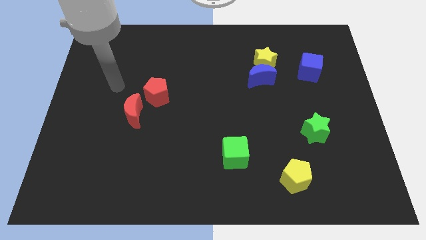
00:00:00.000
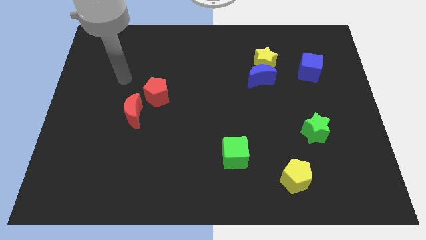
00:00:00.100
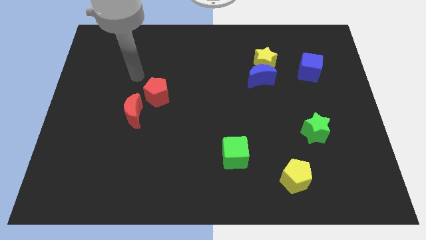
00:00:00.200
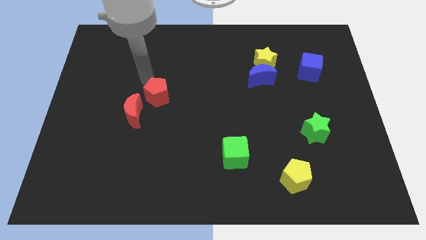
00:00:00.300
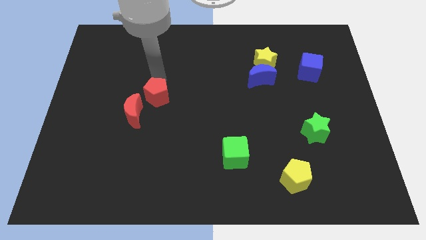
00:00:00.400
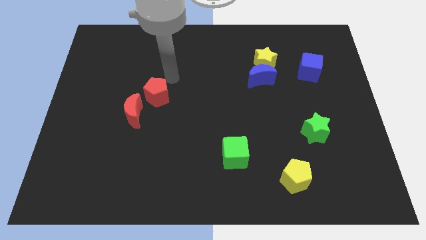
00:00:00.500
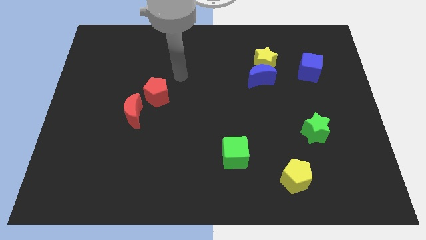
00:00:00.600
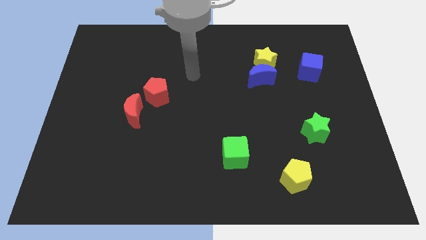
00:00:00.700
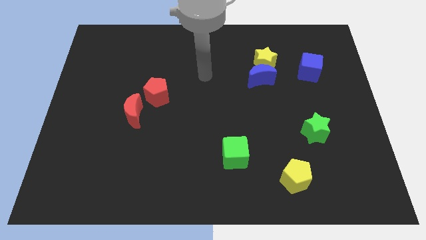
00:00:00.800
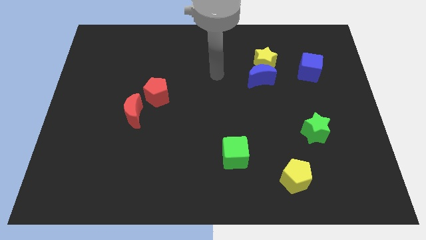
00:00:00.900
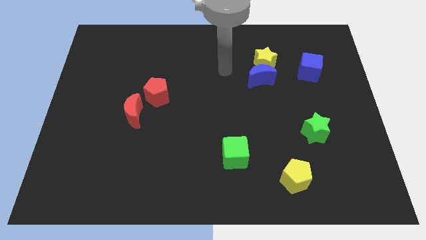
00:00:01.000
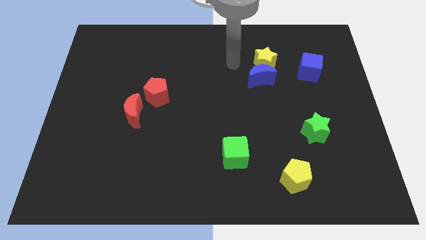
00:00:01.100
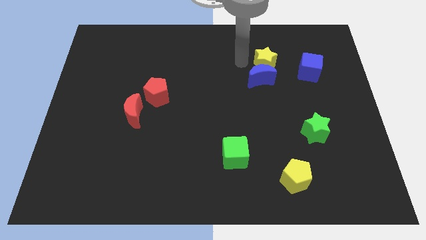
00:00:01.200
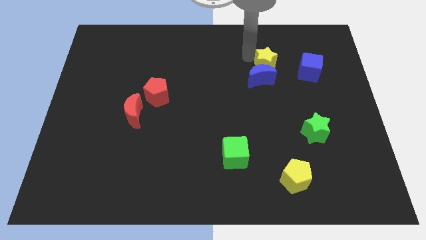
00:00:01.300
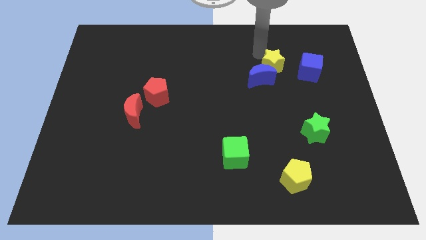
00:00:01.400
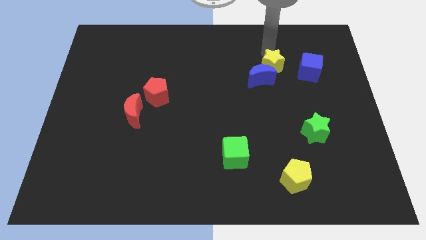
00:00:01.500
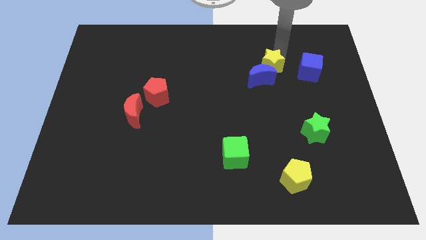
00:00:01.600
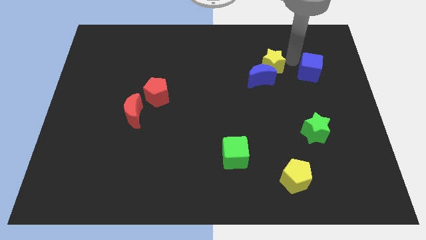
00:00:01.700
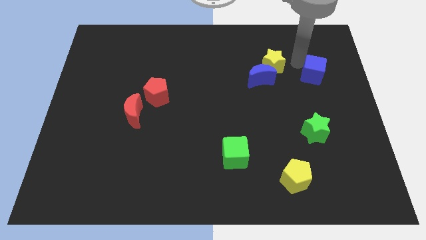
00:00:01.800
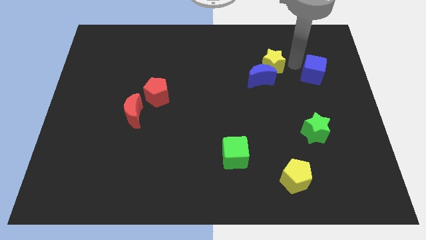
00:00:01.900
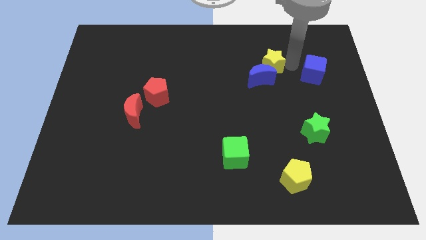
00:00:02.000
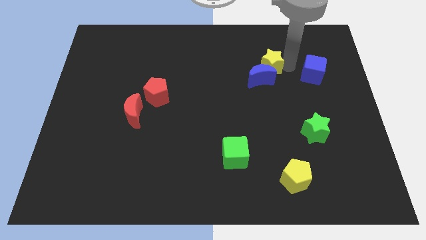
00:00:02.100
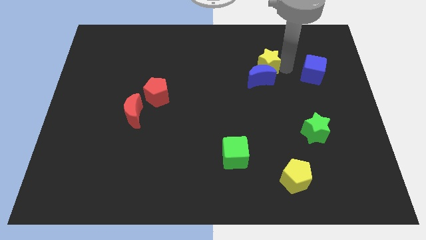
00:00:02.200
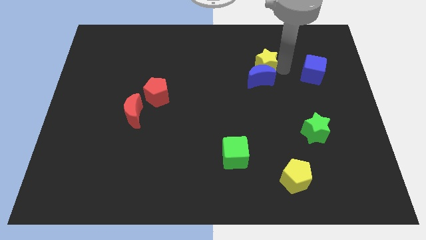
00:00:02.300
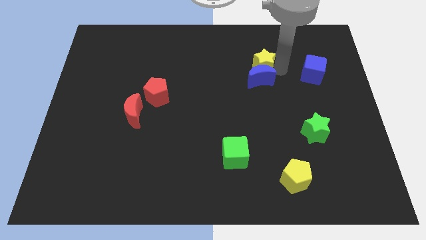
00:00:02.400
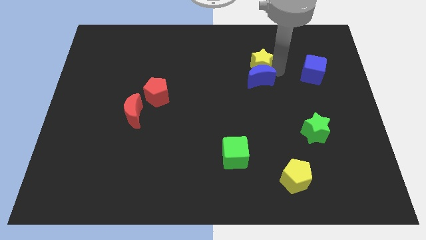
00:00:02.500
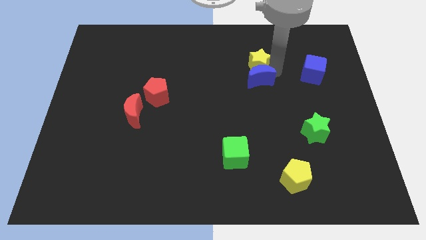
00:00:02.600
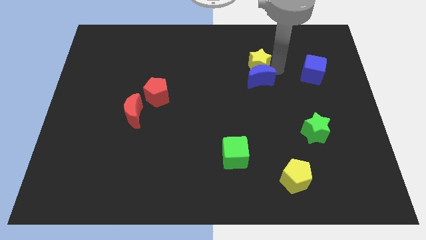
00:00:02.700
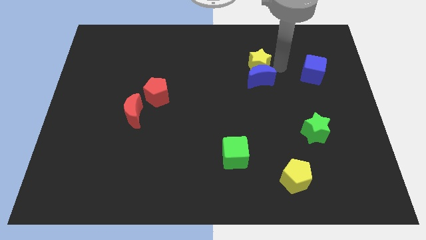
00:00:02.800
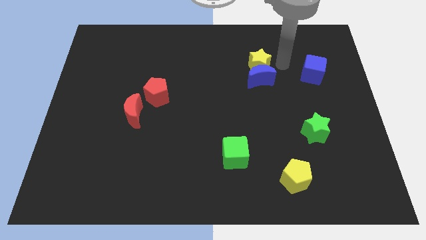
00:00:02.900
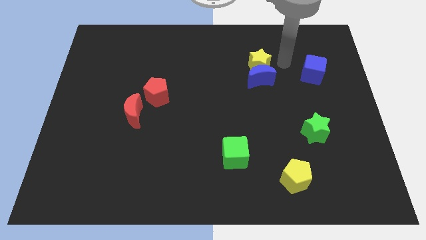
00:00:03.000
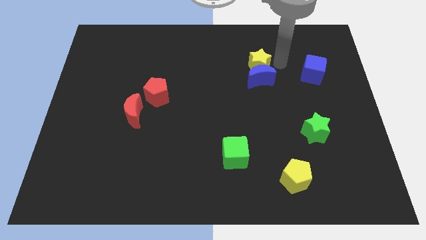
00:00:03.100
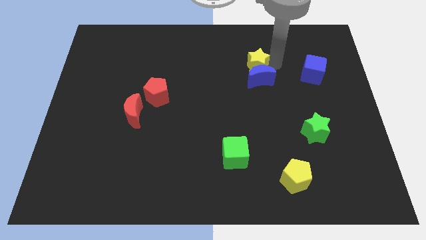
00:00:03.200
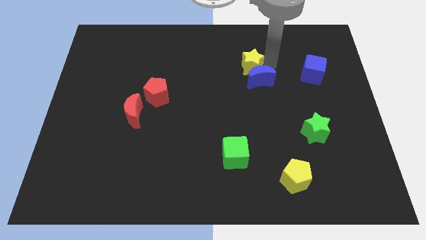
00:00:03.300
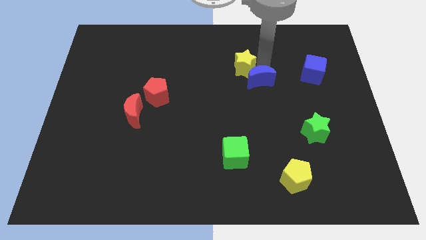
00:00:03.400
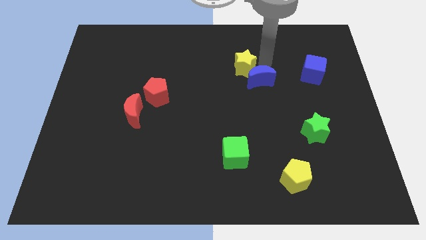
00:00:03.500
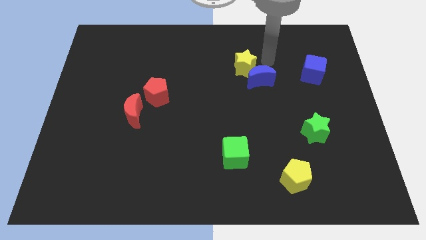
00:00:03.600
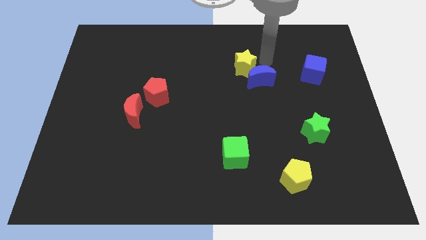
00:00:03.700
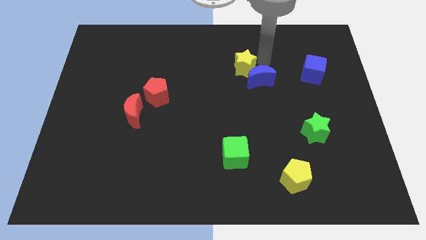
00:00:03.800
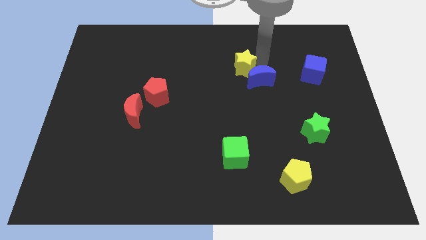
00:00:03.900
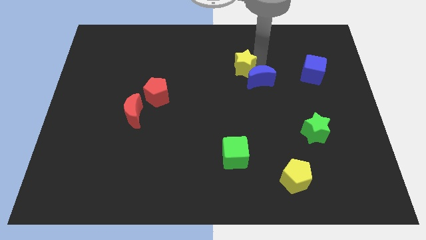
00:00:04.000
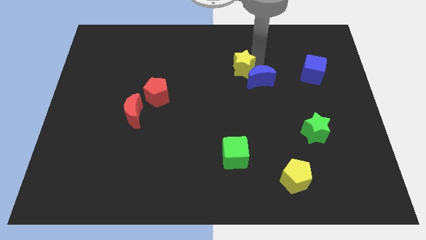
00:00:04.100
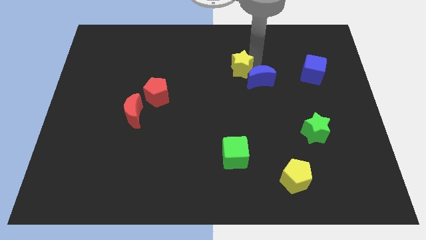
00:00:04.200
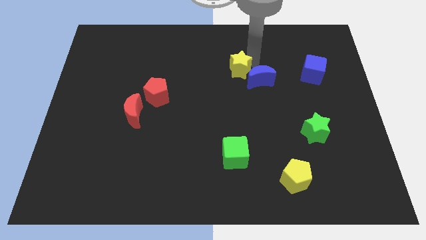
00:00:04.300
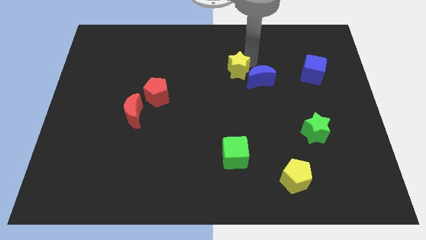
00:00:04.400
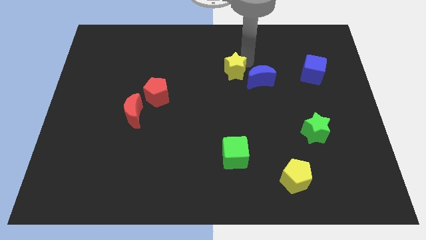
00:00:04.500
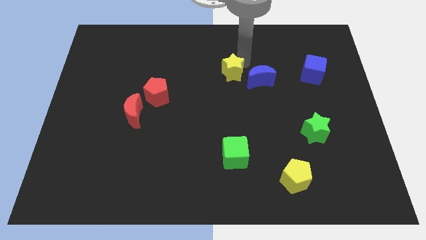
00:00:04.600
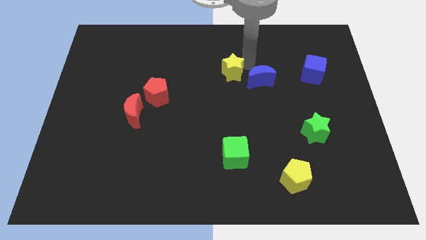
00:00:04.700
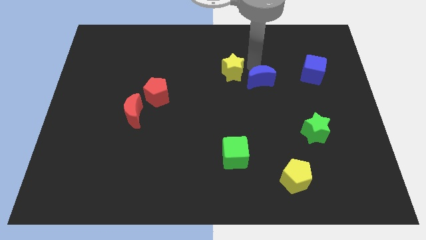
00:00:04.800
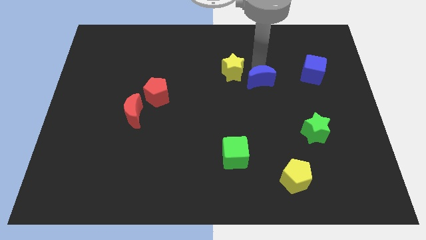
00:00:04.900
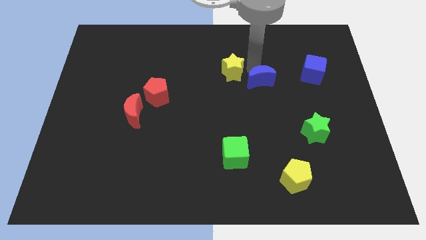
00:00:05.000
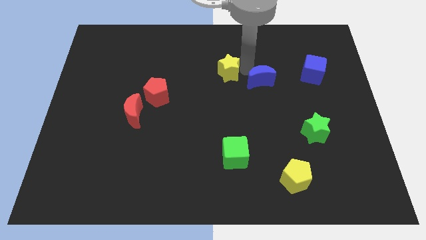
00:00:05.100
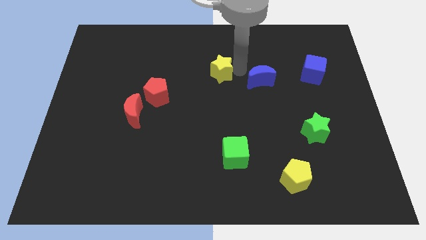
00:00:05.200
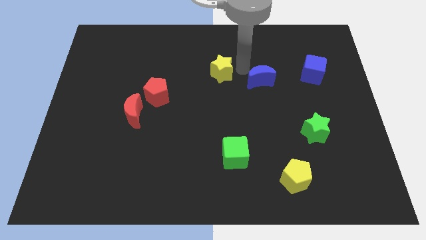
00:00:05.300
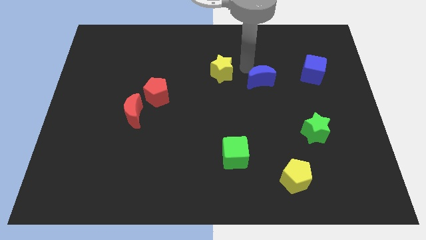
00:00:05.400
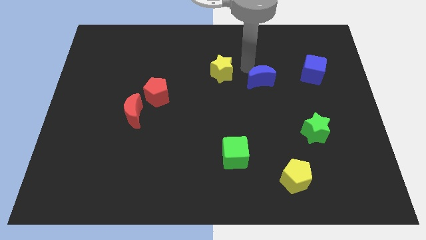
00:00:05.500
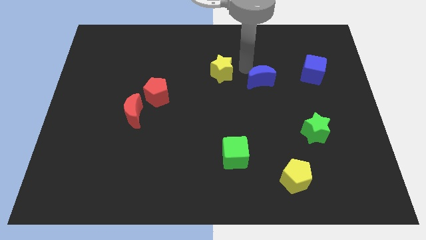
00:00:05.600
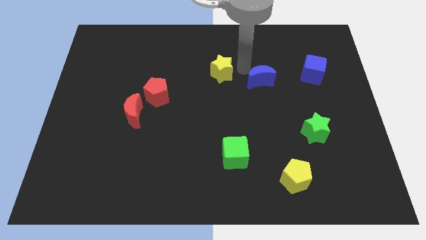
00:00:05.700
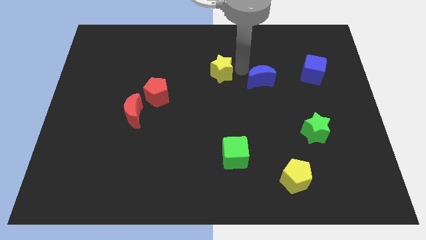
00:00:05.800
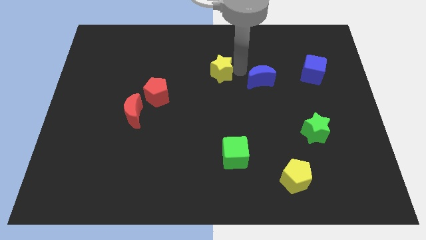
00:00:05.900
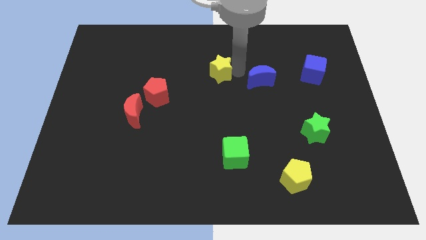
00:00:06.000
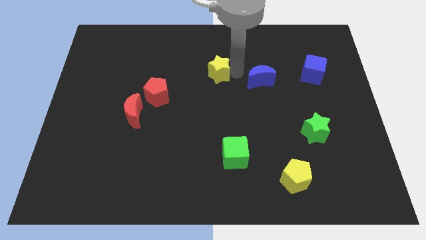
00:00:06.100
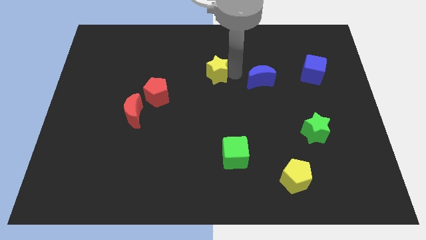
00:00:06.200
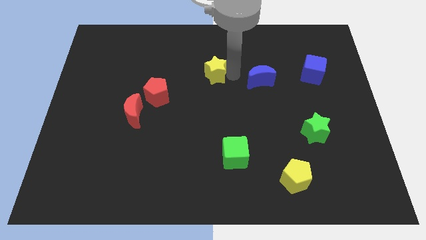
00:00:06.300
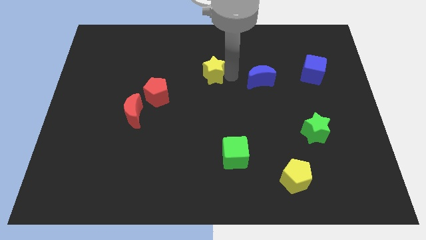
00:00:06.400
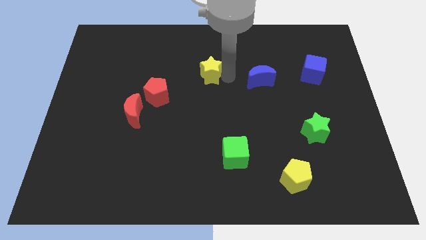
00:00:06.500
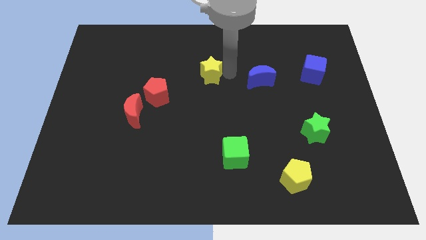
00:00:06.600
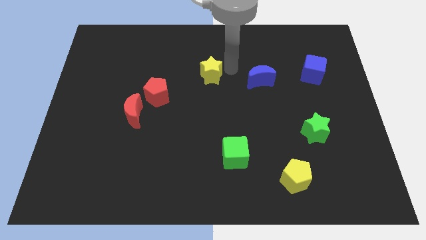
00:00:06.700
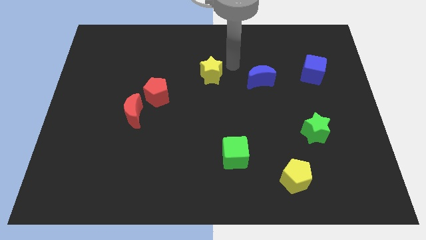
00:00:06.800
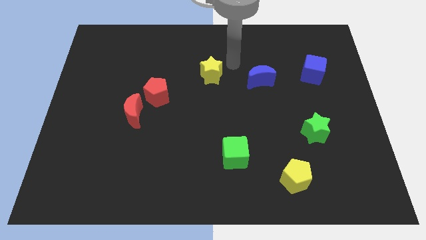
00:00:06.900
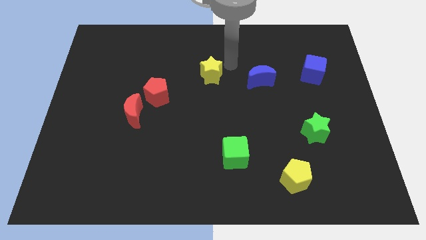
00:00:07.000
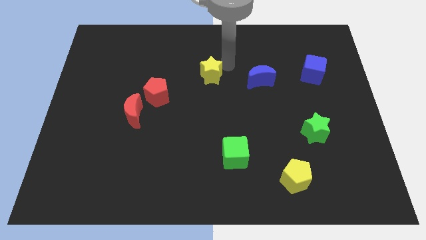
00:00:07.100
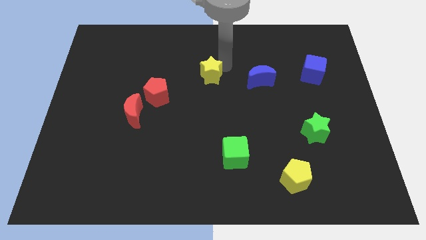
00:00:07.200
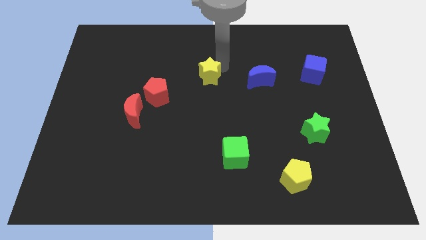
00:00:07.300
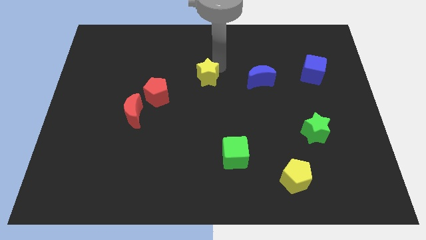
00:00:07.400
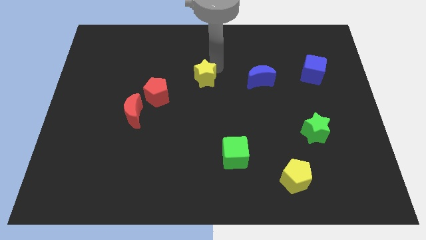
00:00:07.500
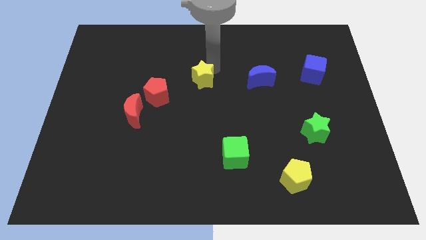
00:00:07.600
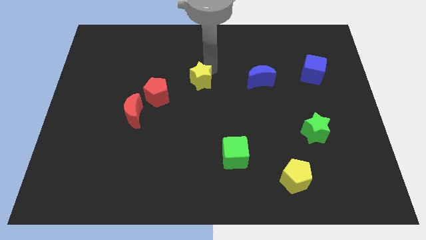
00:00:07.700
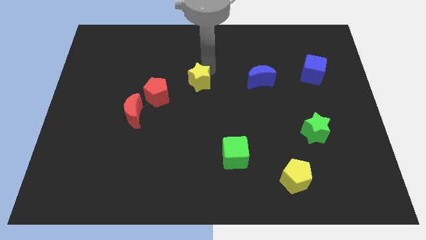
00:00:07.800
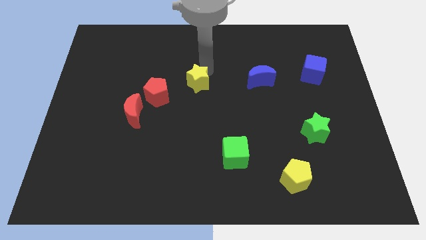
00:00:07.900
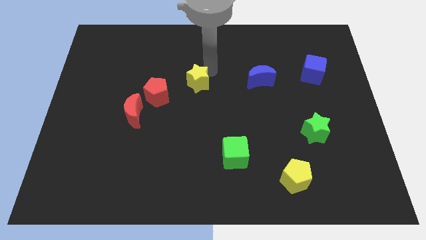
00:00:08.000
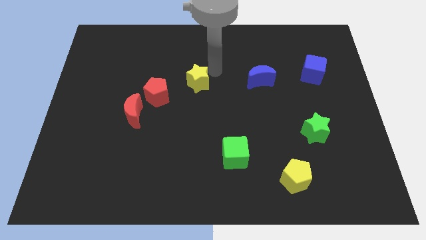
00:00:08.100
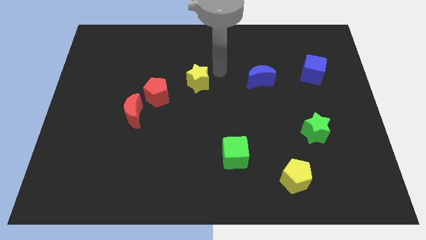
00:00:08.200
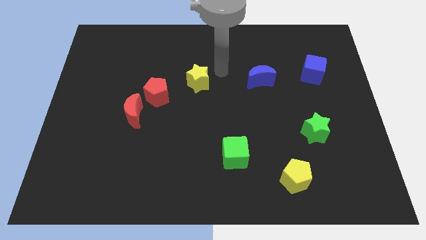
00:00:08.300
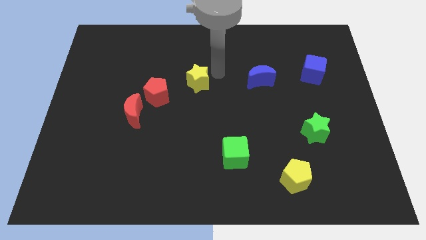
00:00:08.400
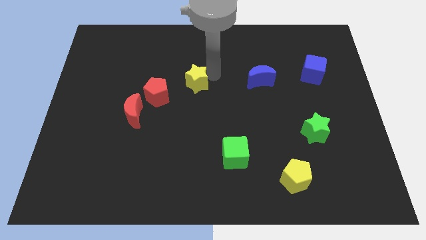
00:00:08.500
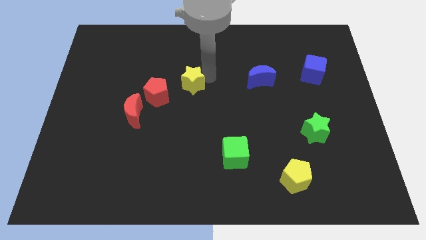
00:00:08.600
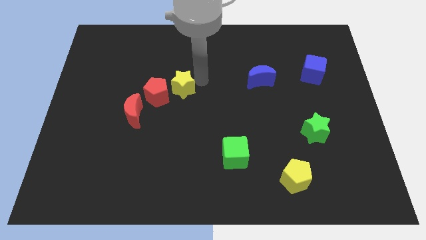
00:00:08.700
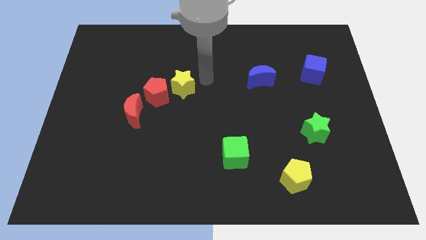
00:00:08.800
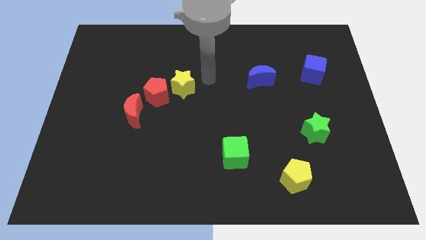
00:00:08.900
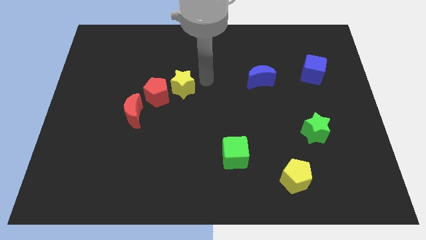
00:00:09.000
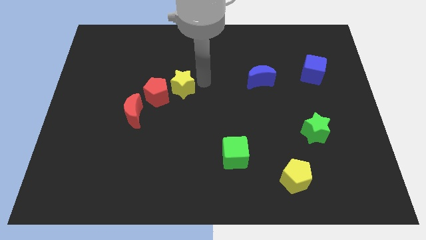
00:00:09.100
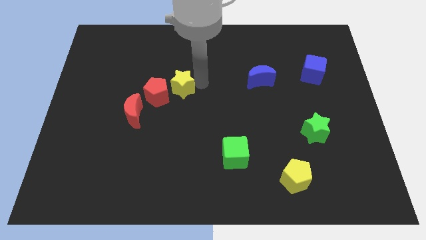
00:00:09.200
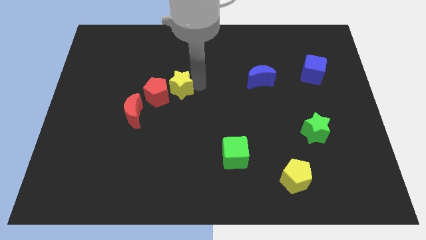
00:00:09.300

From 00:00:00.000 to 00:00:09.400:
put the yellow star towards the red pentagon
